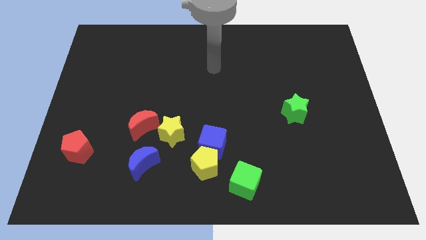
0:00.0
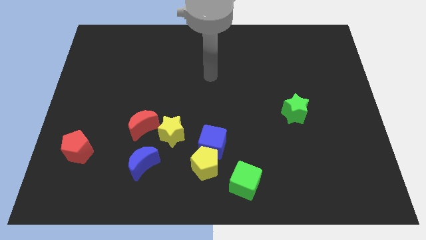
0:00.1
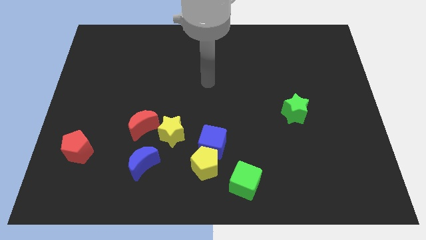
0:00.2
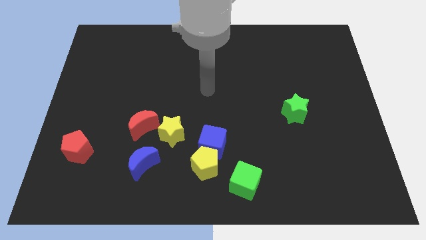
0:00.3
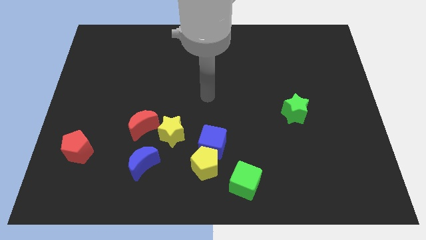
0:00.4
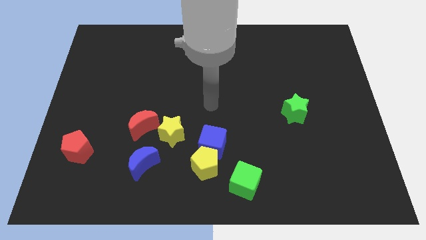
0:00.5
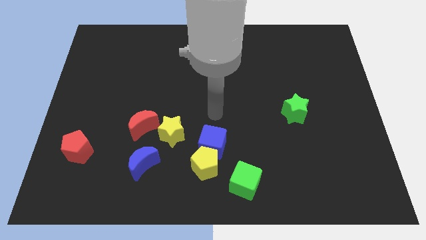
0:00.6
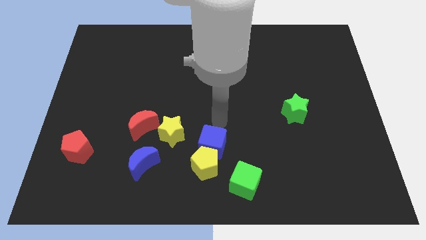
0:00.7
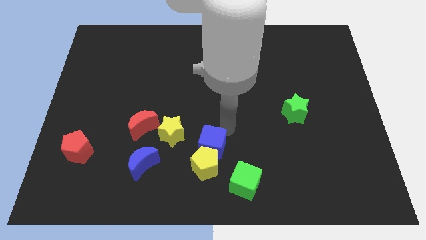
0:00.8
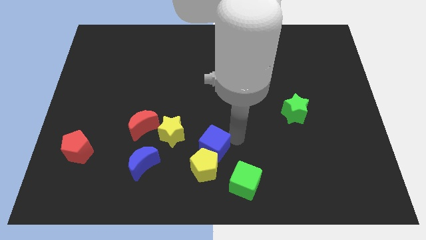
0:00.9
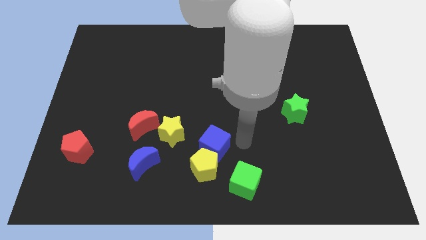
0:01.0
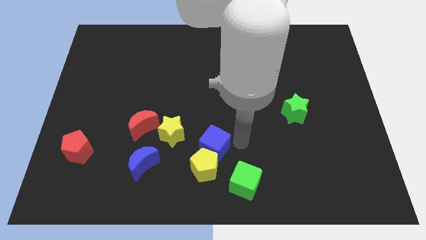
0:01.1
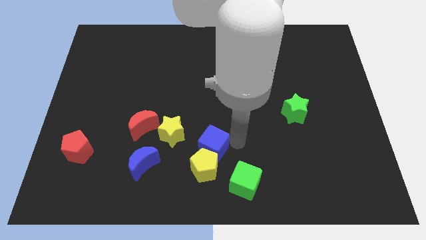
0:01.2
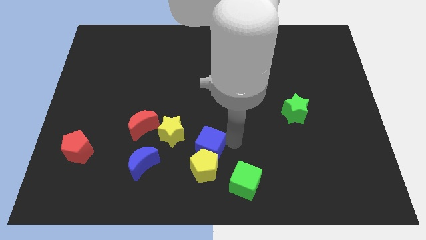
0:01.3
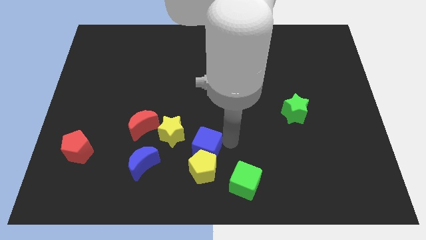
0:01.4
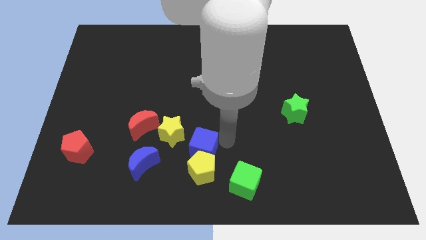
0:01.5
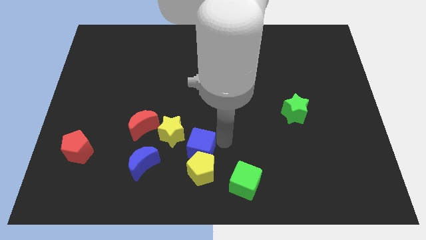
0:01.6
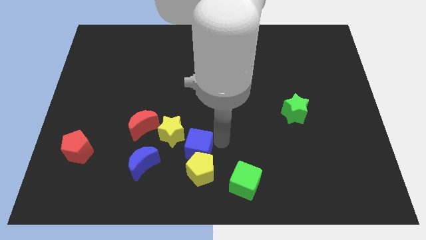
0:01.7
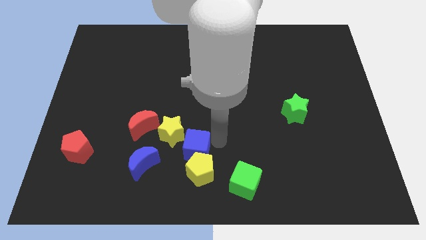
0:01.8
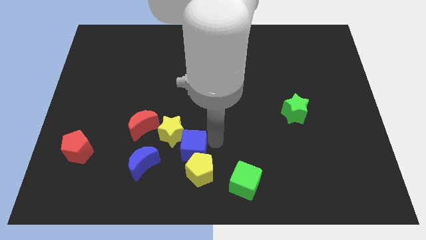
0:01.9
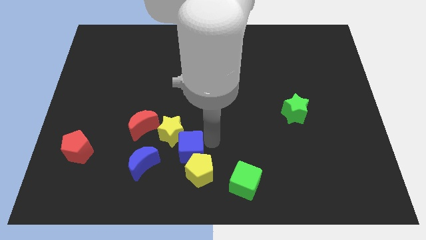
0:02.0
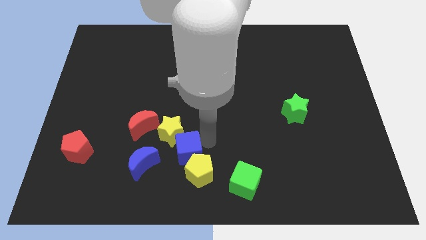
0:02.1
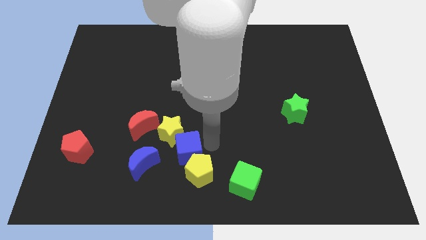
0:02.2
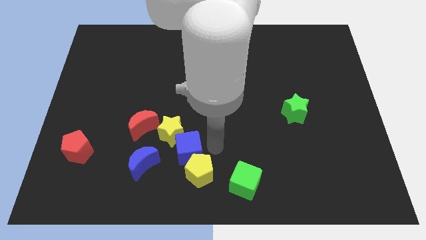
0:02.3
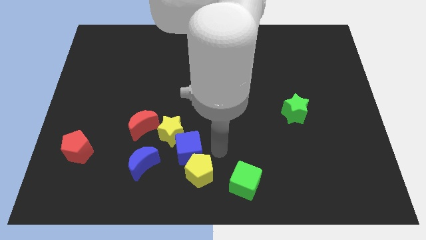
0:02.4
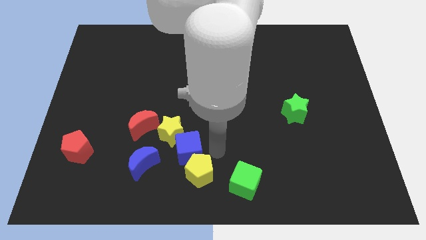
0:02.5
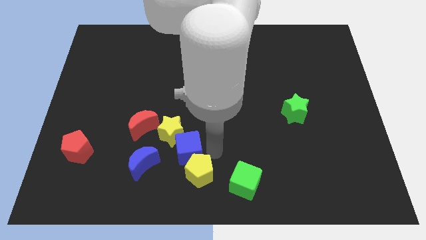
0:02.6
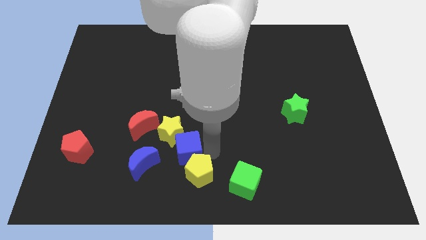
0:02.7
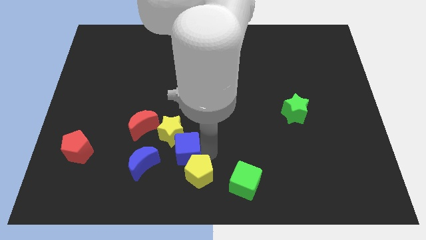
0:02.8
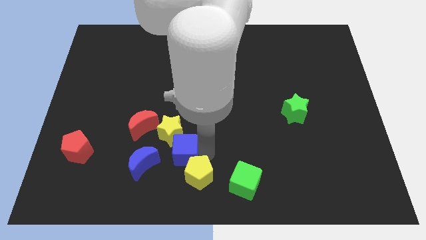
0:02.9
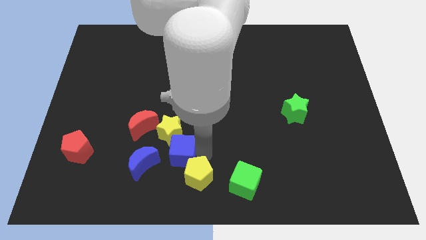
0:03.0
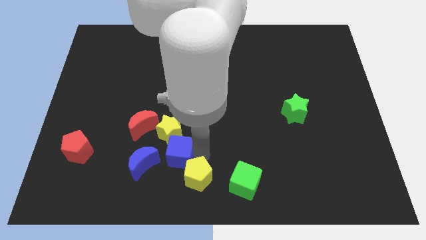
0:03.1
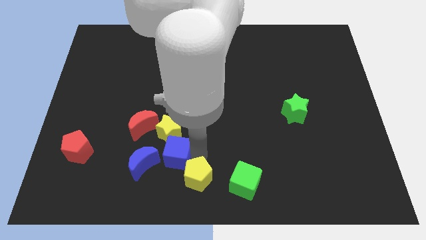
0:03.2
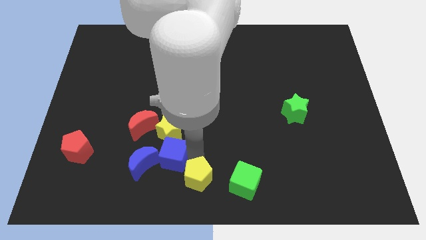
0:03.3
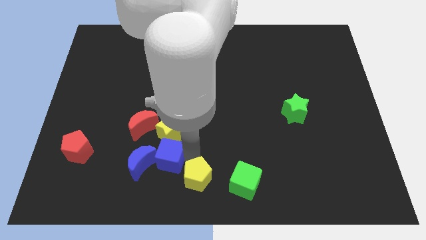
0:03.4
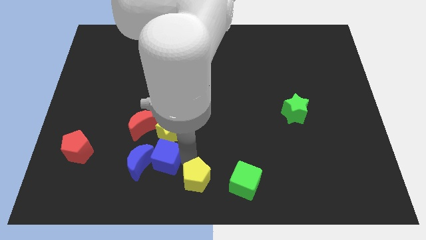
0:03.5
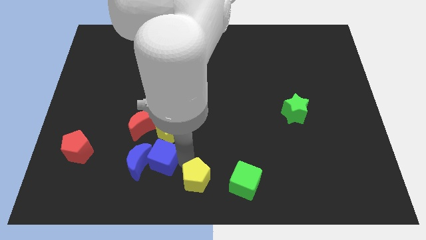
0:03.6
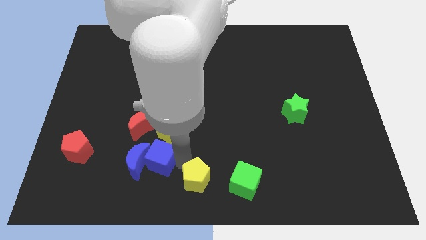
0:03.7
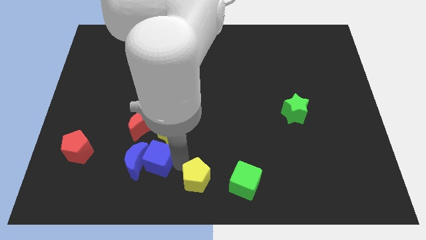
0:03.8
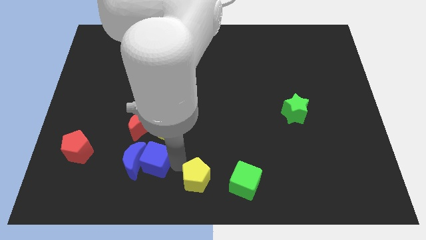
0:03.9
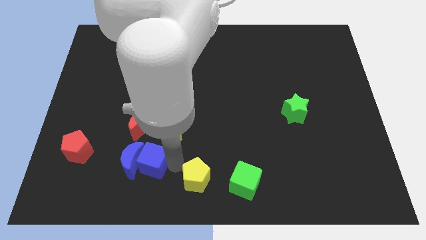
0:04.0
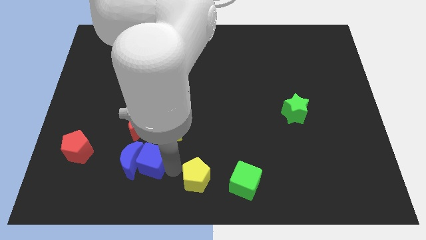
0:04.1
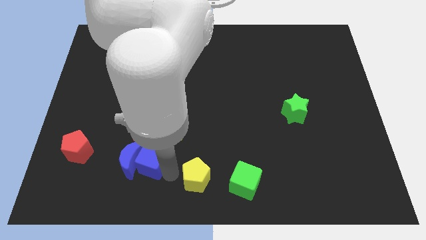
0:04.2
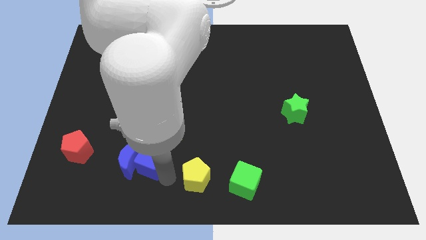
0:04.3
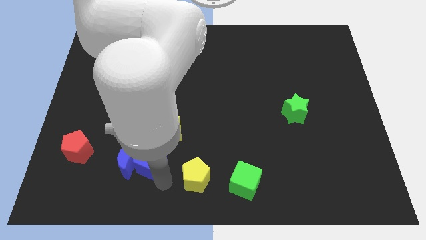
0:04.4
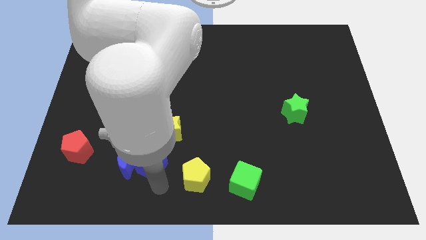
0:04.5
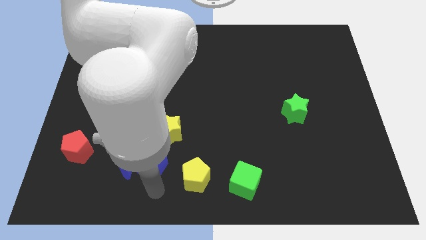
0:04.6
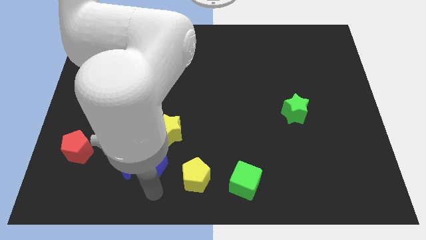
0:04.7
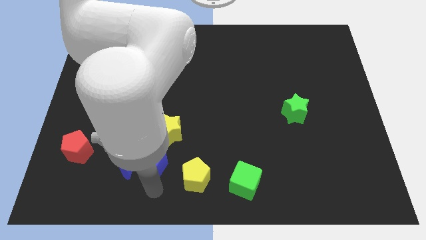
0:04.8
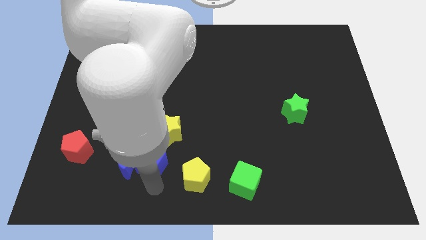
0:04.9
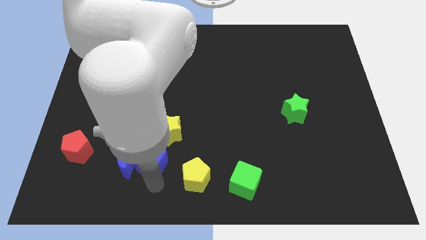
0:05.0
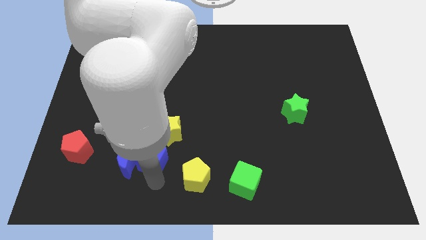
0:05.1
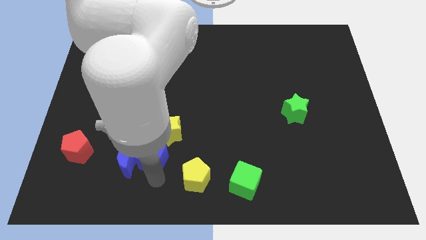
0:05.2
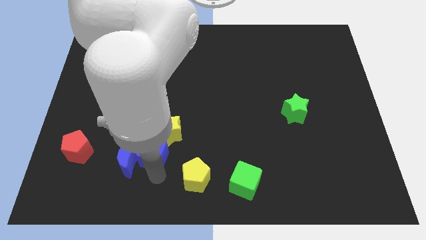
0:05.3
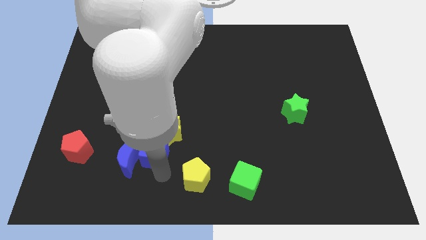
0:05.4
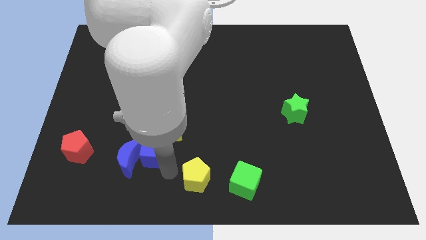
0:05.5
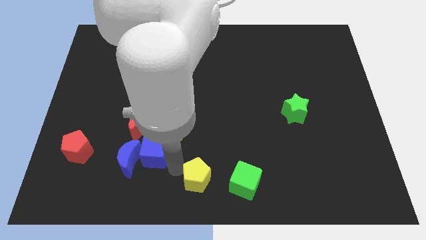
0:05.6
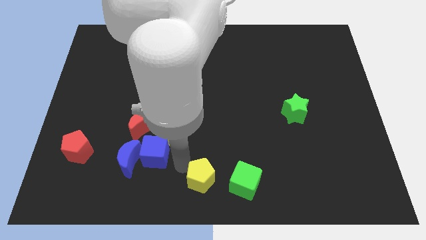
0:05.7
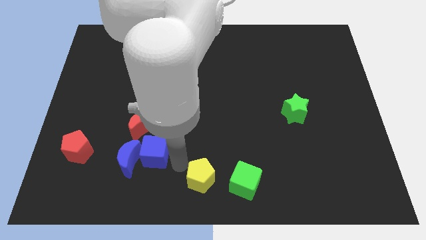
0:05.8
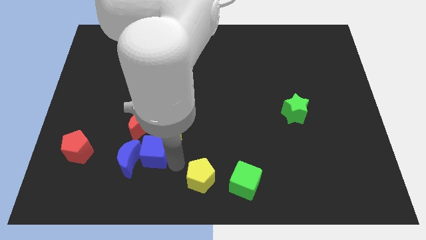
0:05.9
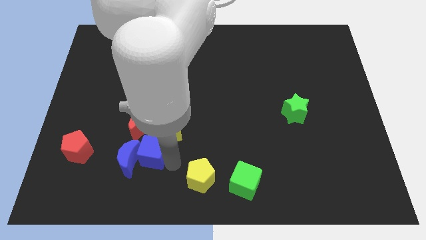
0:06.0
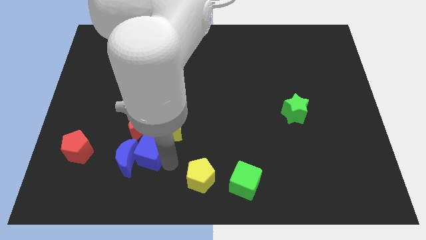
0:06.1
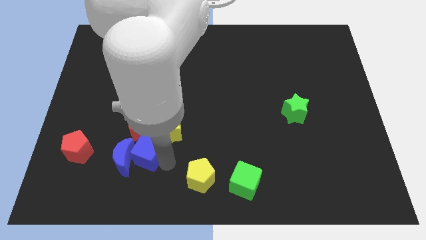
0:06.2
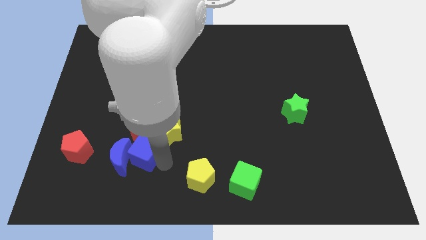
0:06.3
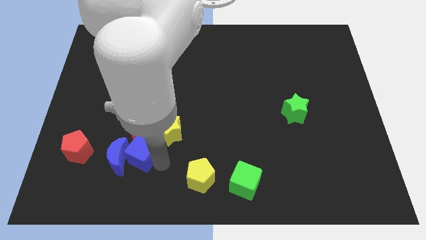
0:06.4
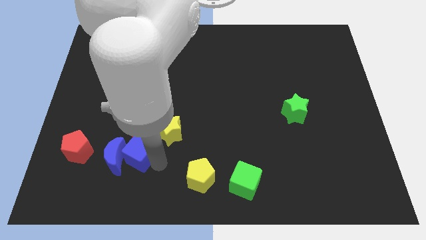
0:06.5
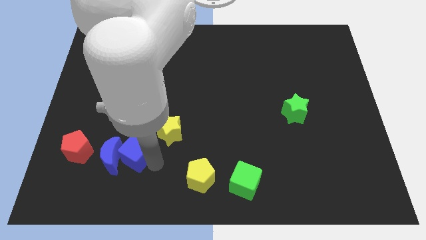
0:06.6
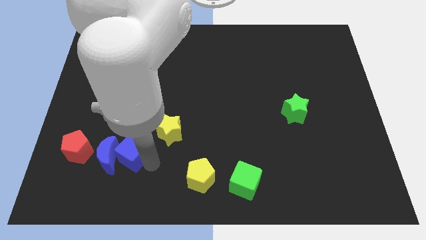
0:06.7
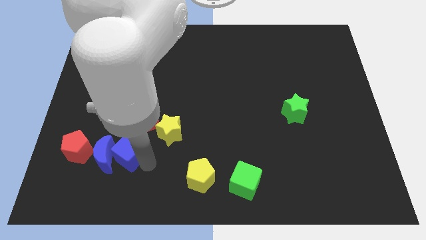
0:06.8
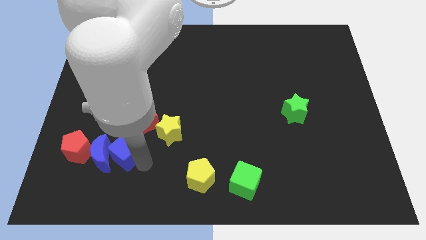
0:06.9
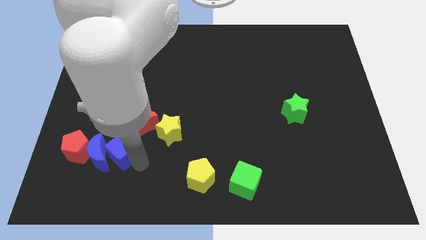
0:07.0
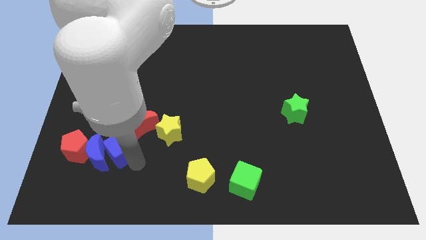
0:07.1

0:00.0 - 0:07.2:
slide the blue cube just left of the yellow star

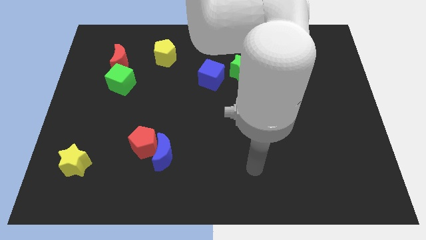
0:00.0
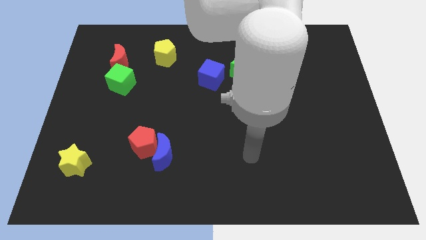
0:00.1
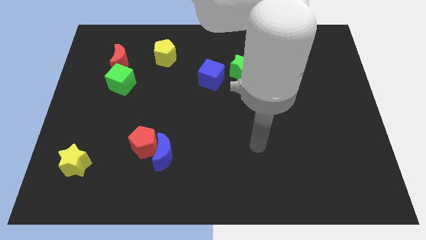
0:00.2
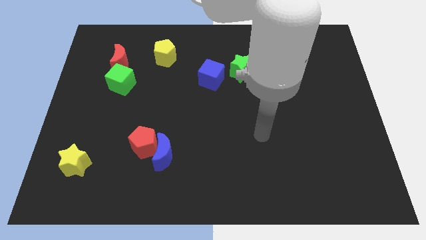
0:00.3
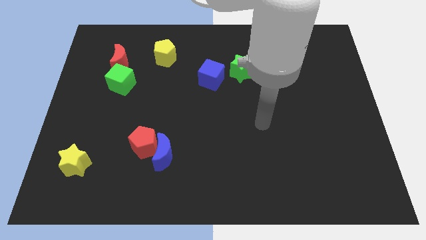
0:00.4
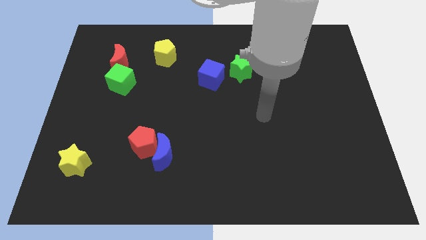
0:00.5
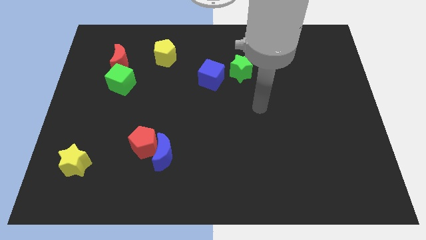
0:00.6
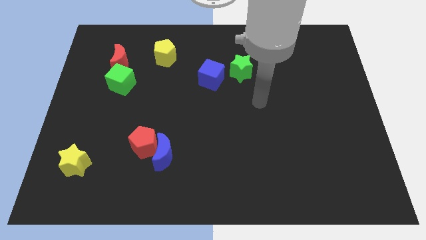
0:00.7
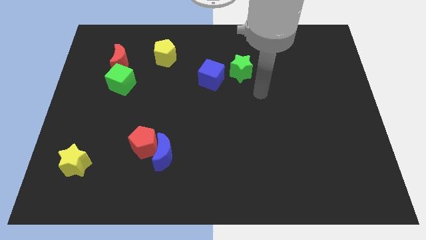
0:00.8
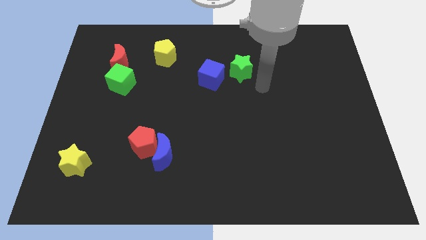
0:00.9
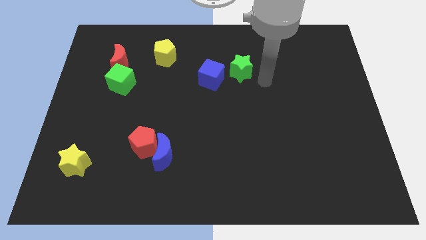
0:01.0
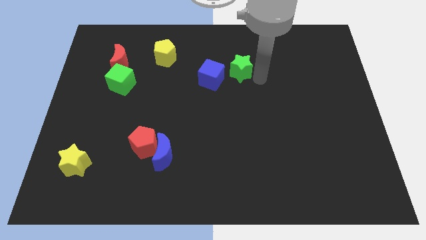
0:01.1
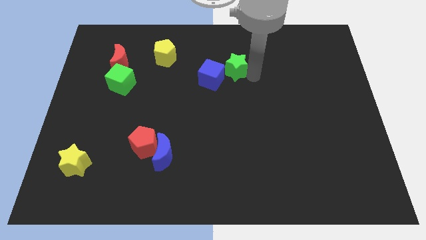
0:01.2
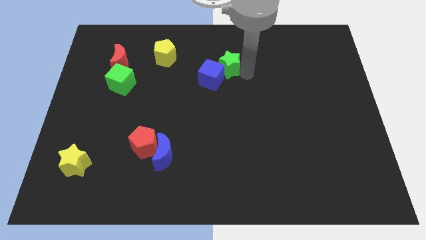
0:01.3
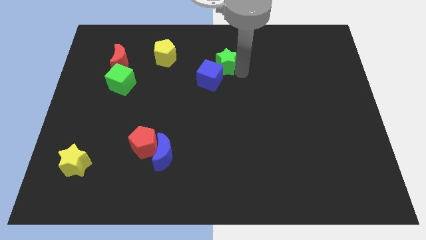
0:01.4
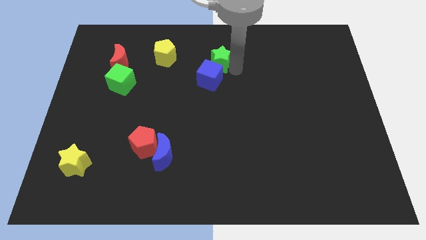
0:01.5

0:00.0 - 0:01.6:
slide the green star right of the yellow pentagon
